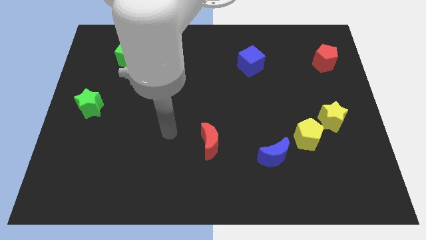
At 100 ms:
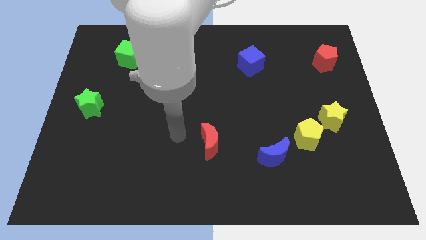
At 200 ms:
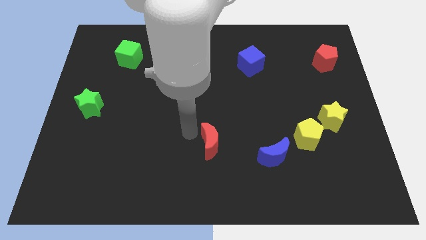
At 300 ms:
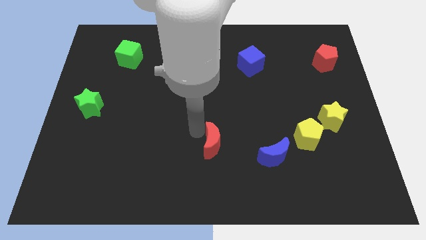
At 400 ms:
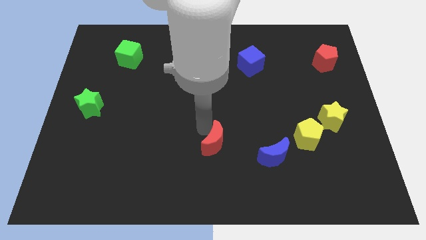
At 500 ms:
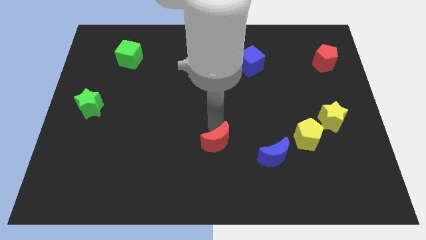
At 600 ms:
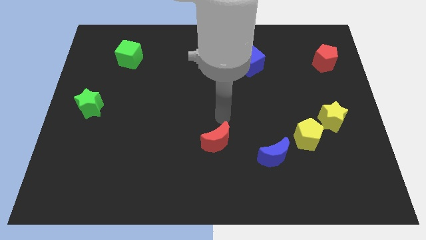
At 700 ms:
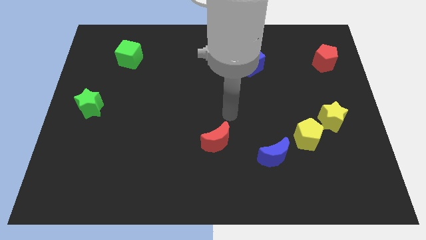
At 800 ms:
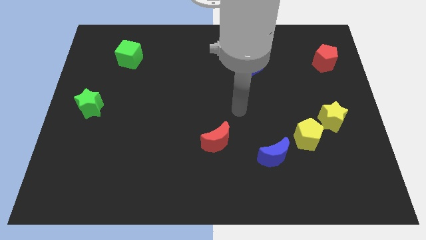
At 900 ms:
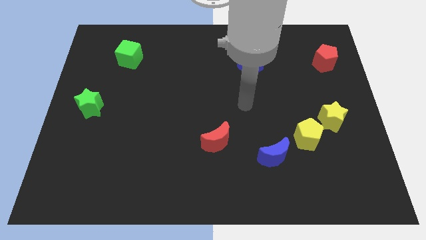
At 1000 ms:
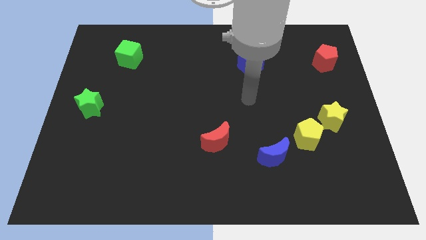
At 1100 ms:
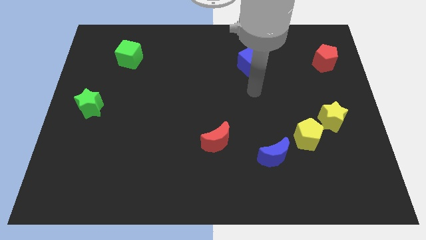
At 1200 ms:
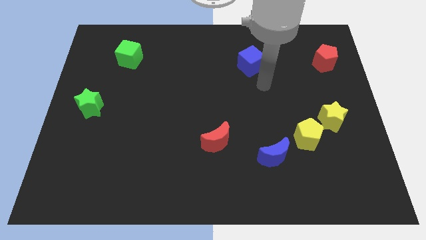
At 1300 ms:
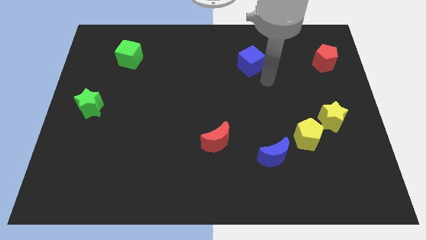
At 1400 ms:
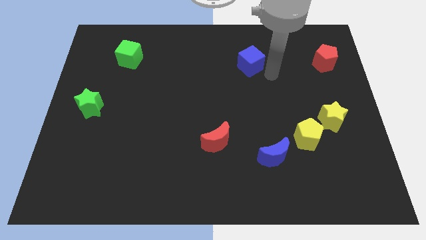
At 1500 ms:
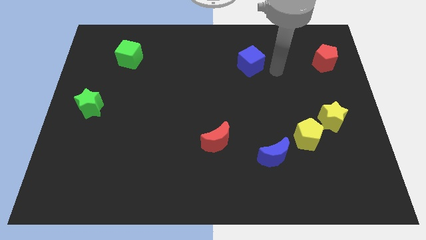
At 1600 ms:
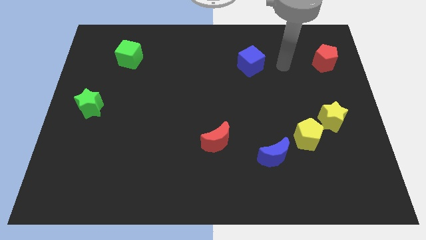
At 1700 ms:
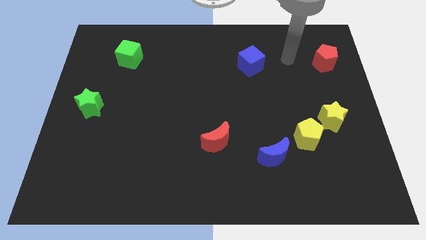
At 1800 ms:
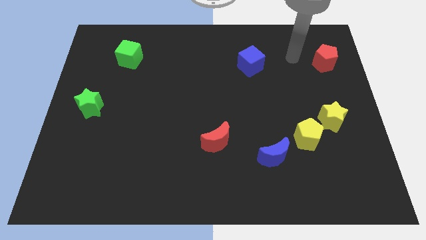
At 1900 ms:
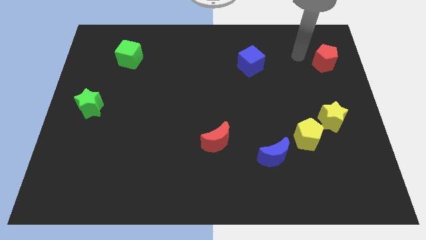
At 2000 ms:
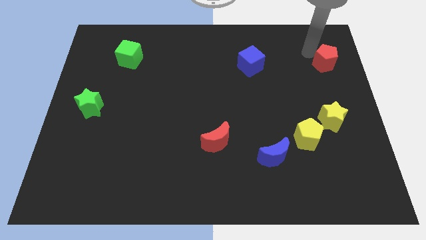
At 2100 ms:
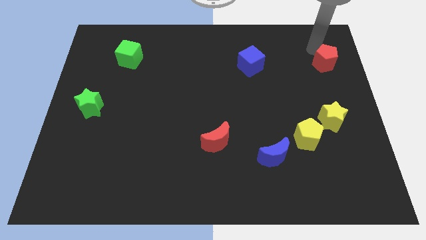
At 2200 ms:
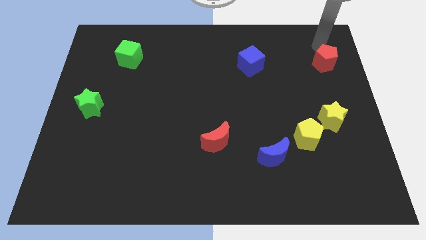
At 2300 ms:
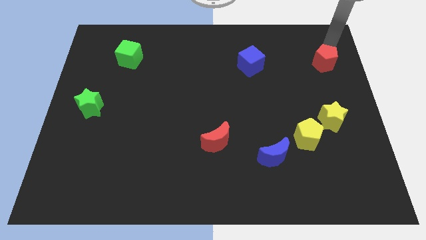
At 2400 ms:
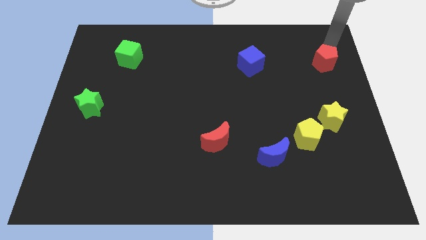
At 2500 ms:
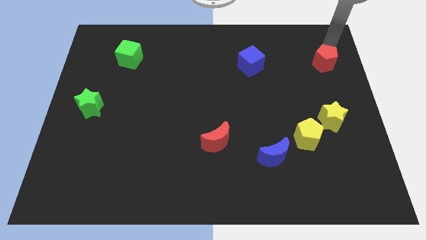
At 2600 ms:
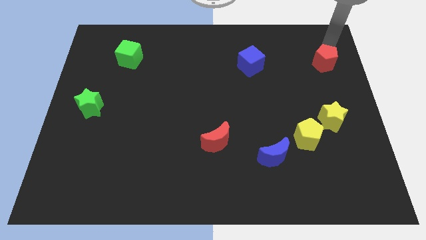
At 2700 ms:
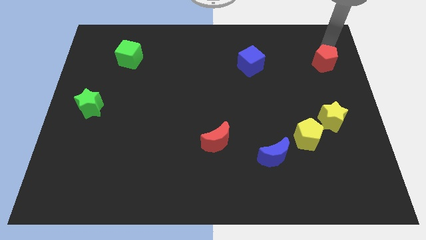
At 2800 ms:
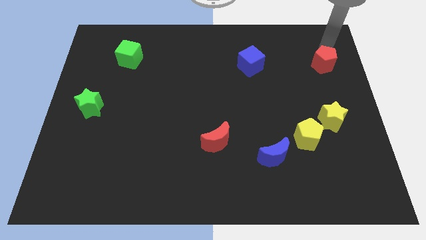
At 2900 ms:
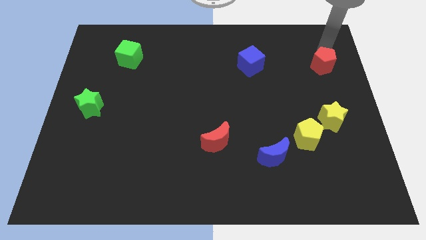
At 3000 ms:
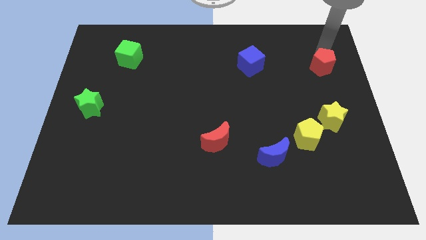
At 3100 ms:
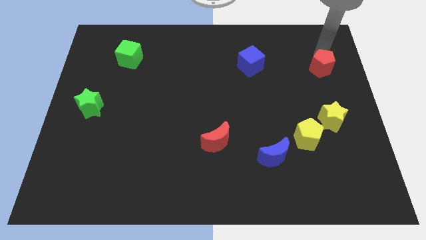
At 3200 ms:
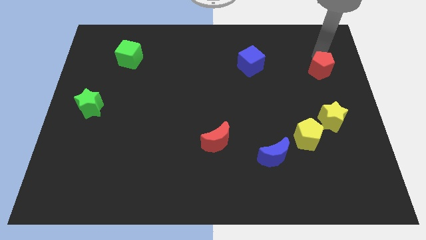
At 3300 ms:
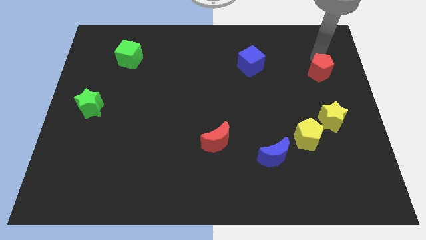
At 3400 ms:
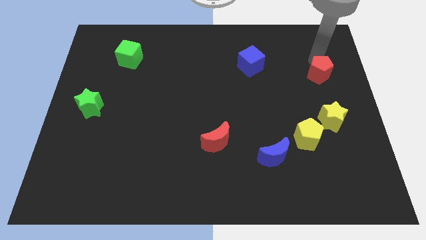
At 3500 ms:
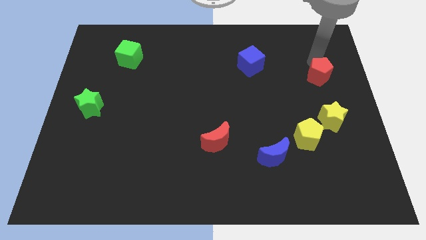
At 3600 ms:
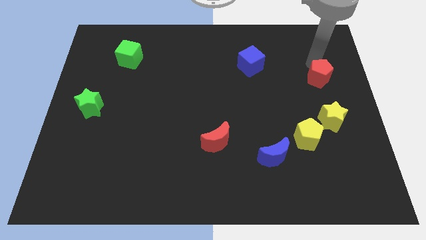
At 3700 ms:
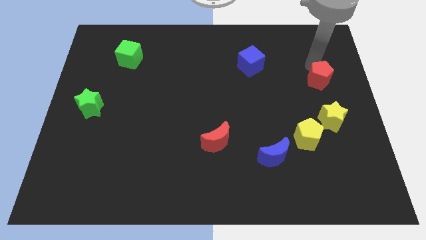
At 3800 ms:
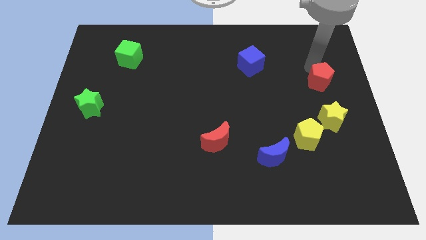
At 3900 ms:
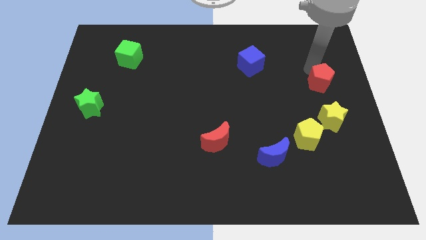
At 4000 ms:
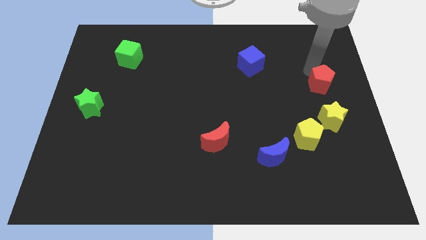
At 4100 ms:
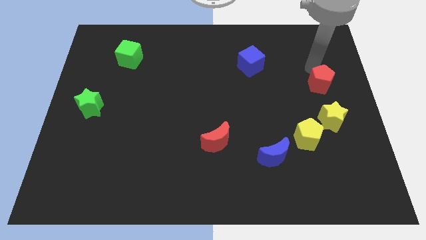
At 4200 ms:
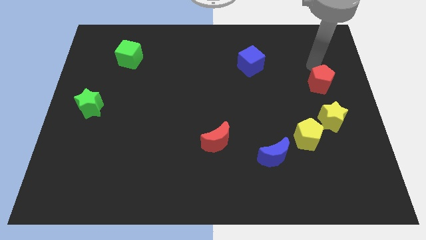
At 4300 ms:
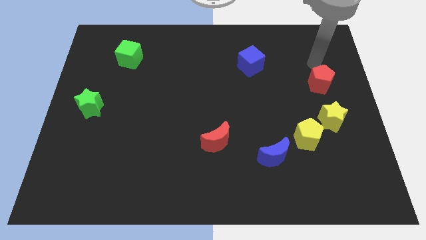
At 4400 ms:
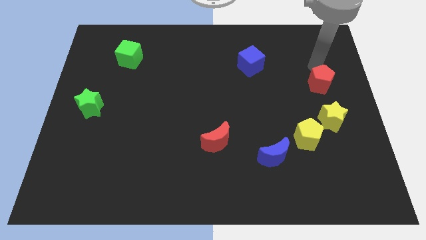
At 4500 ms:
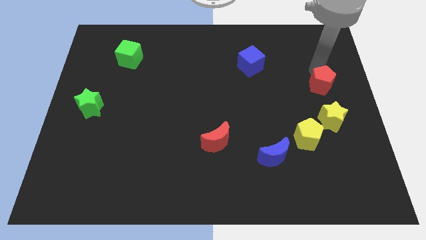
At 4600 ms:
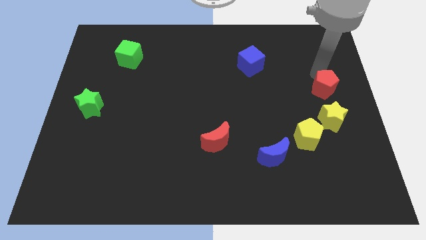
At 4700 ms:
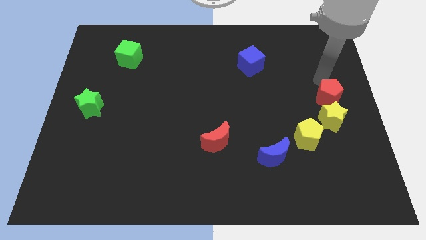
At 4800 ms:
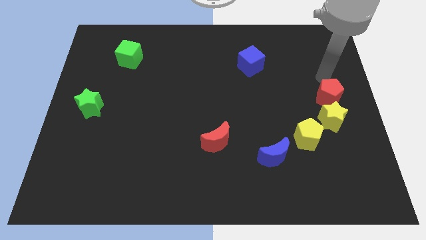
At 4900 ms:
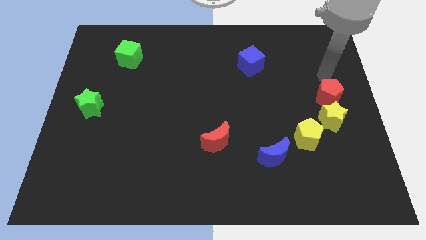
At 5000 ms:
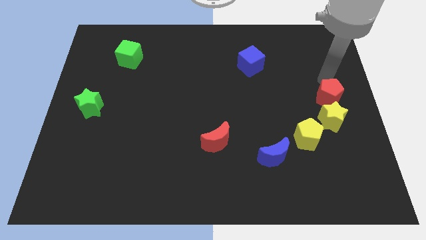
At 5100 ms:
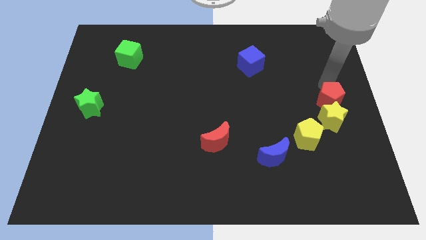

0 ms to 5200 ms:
push the red pentagon next to the yellow star

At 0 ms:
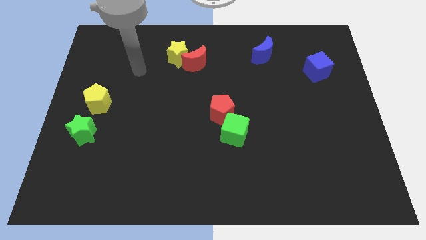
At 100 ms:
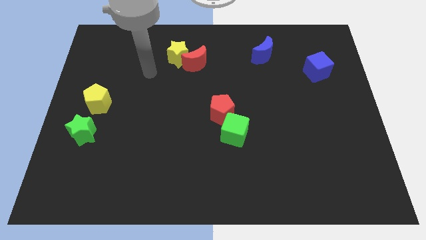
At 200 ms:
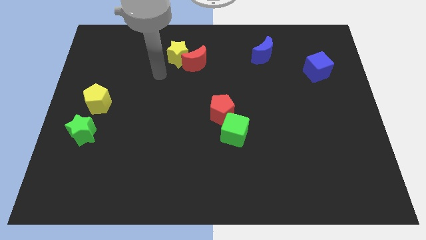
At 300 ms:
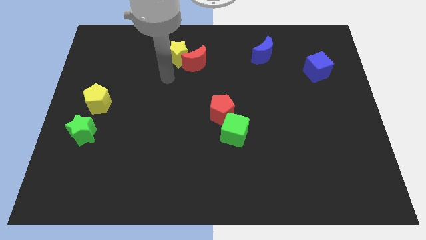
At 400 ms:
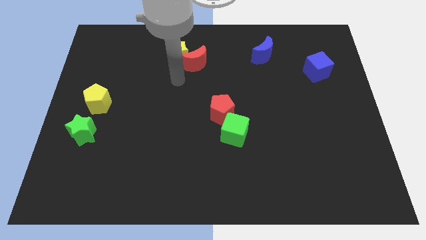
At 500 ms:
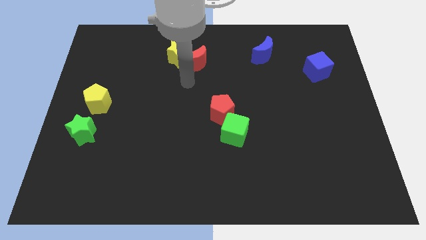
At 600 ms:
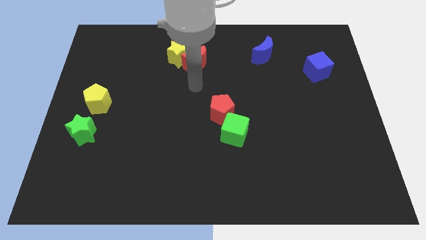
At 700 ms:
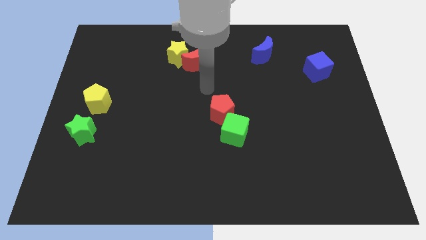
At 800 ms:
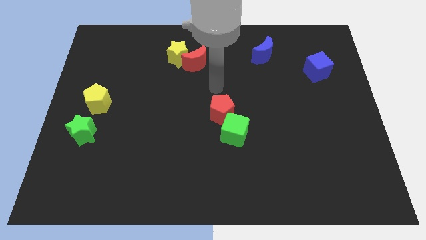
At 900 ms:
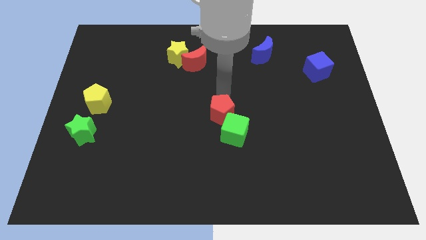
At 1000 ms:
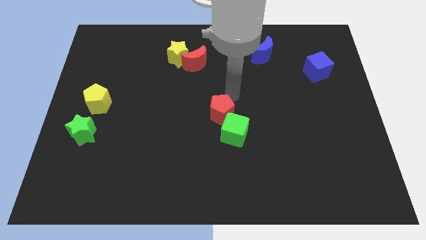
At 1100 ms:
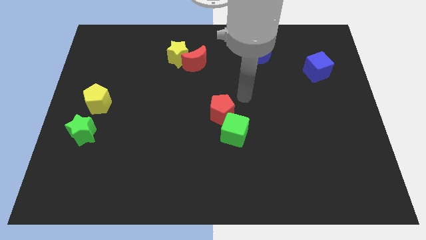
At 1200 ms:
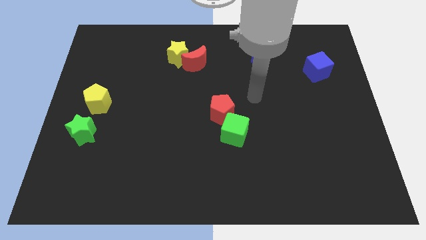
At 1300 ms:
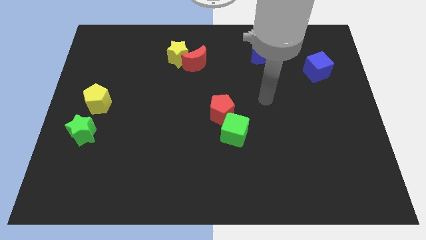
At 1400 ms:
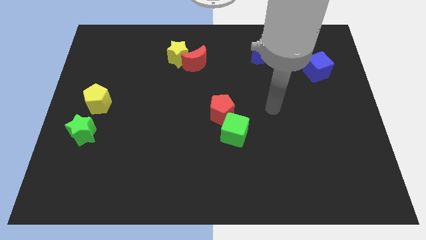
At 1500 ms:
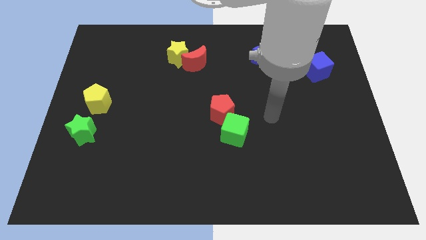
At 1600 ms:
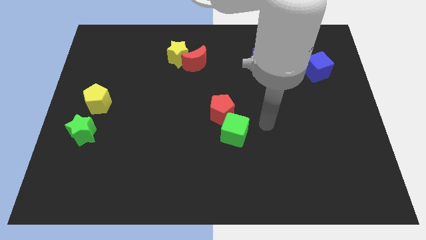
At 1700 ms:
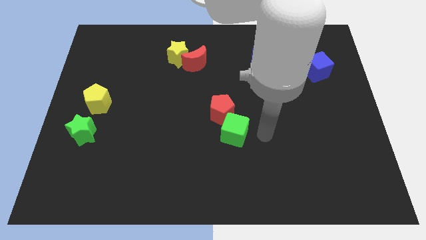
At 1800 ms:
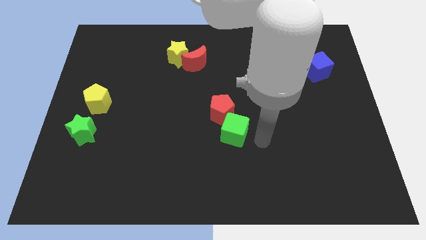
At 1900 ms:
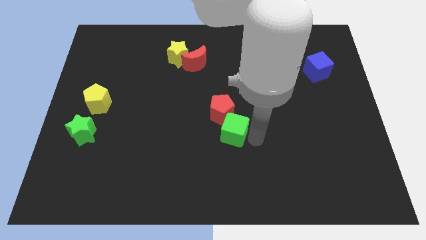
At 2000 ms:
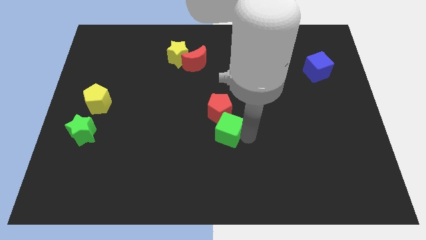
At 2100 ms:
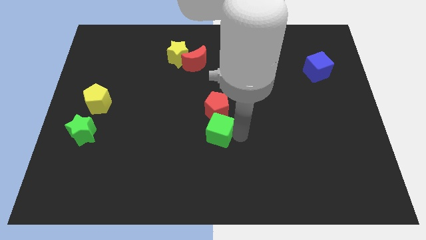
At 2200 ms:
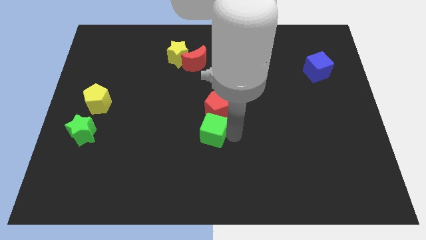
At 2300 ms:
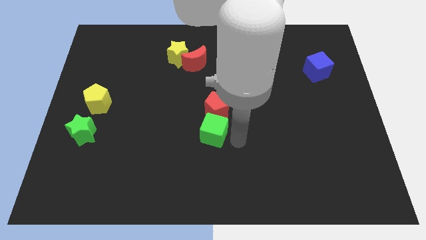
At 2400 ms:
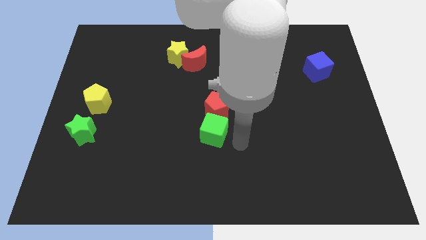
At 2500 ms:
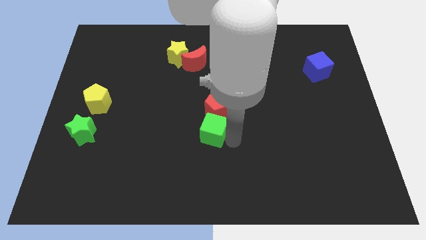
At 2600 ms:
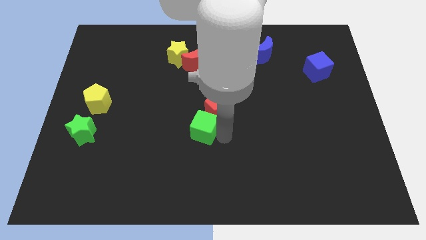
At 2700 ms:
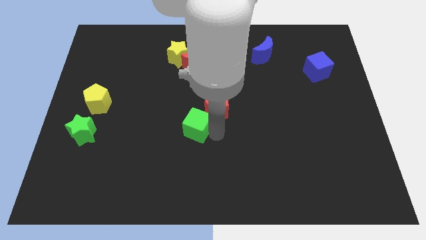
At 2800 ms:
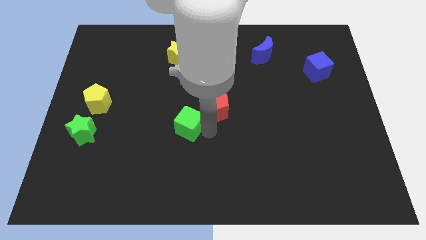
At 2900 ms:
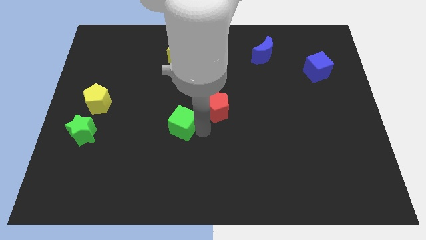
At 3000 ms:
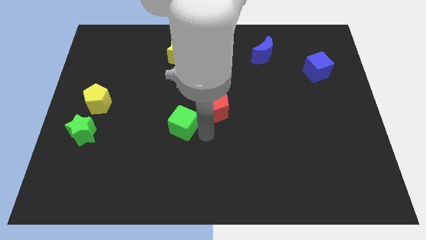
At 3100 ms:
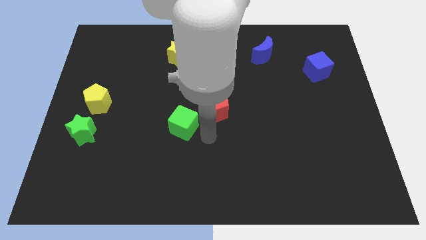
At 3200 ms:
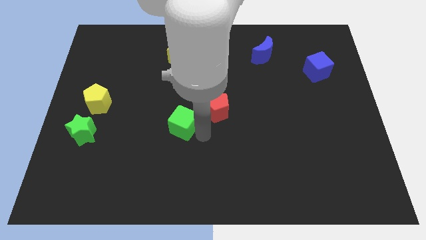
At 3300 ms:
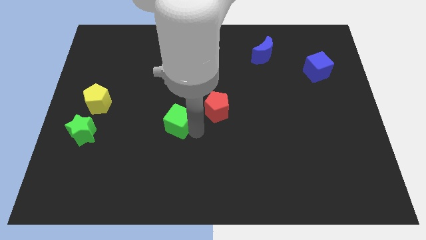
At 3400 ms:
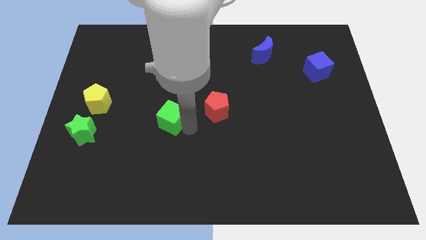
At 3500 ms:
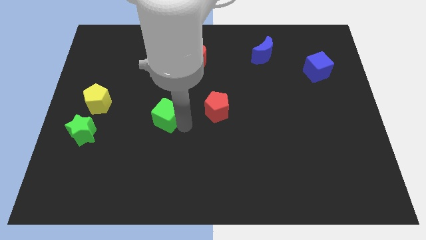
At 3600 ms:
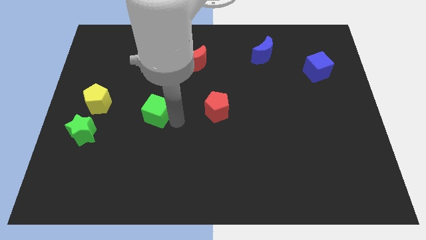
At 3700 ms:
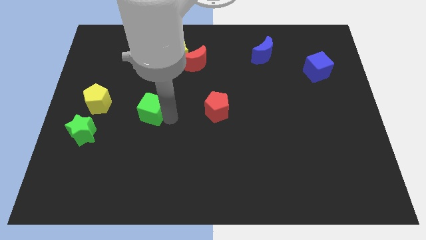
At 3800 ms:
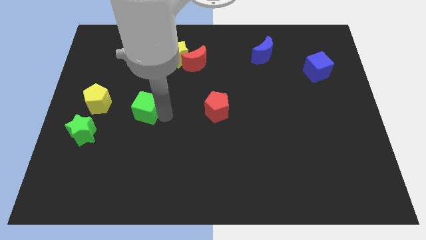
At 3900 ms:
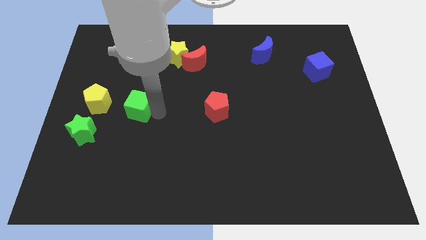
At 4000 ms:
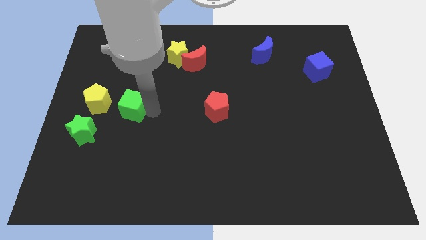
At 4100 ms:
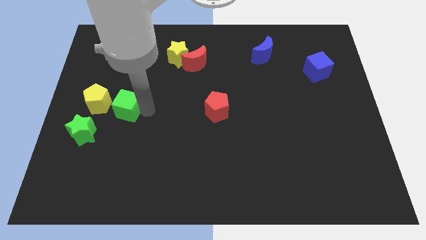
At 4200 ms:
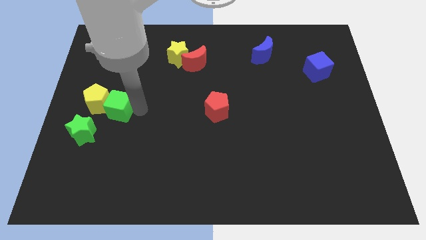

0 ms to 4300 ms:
push the green cube close to the yellow pentagon
